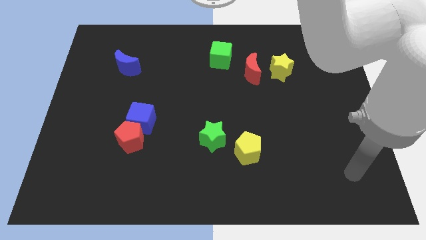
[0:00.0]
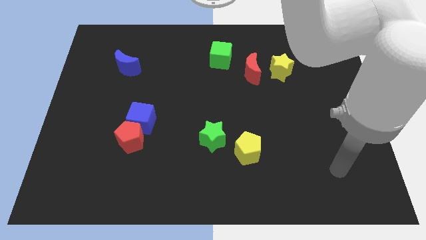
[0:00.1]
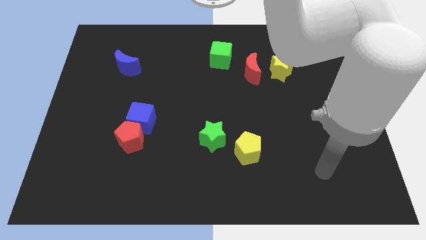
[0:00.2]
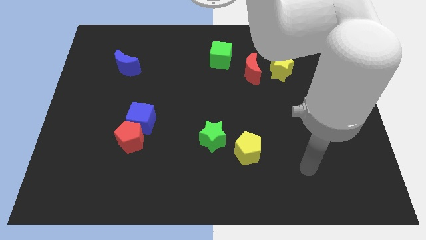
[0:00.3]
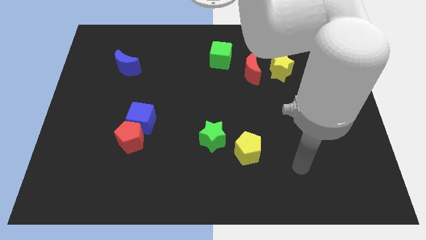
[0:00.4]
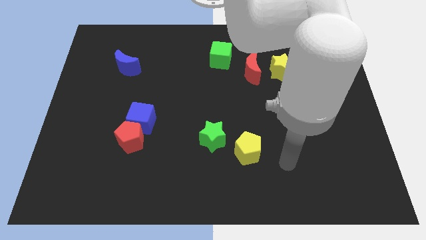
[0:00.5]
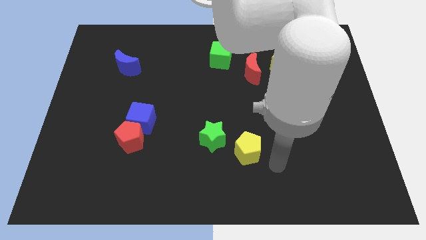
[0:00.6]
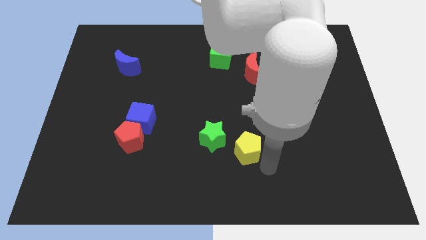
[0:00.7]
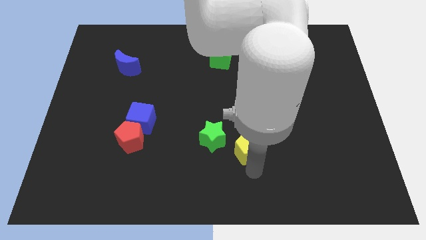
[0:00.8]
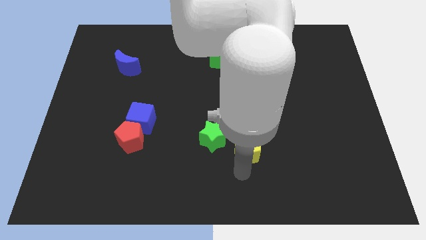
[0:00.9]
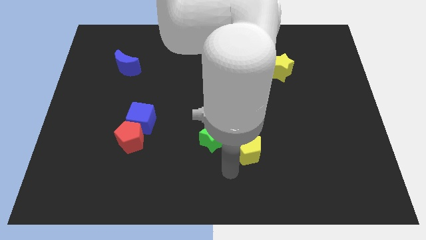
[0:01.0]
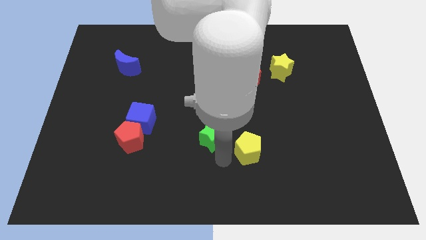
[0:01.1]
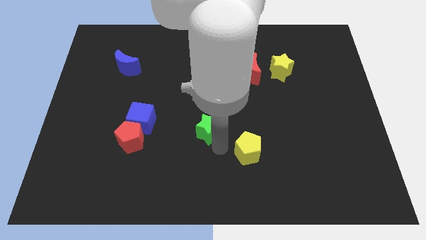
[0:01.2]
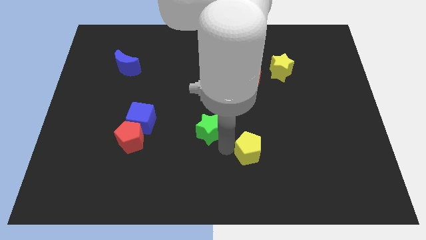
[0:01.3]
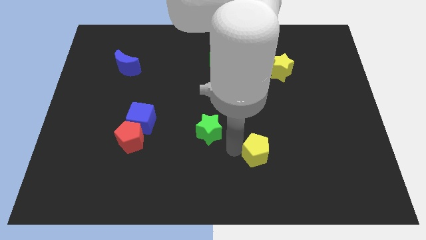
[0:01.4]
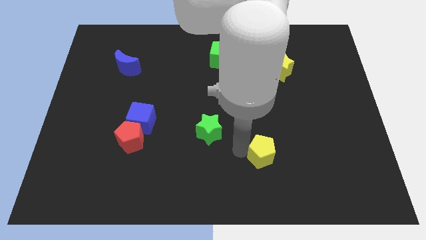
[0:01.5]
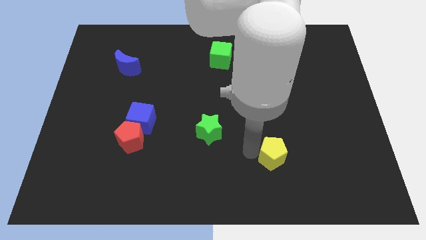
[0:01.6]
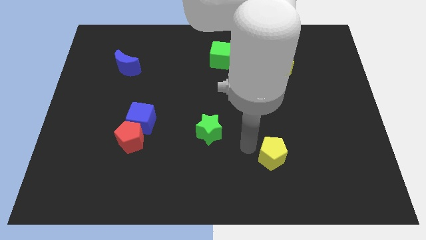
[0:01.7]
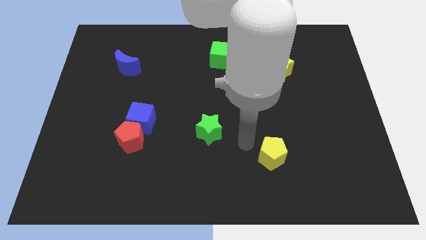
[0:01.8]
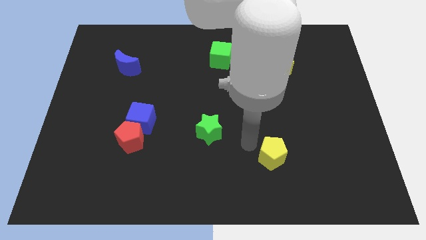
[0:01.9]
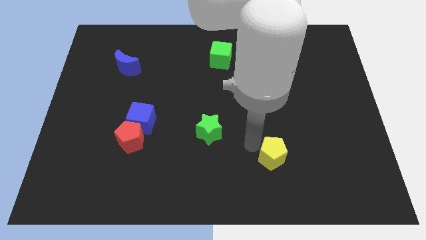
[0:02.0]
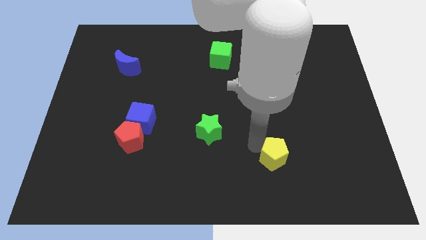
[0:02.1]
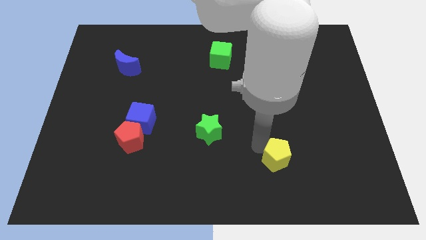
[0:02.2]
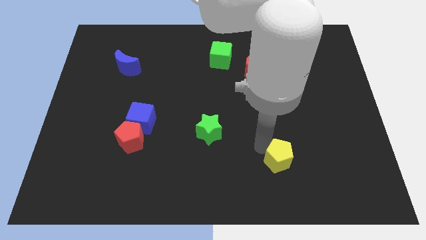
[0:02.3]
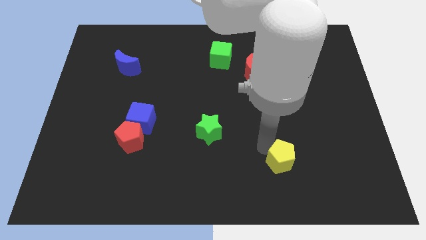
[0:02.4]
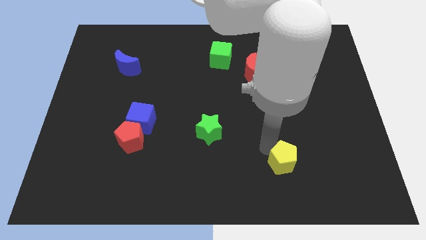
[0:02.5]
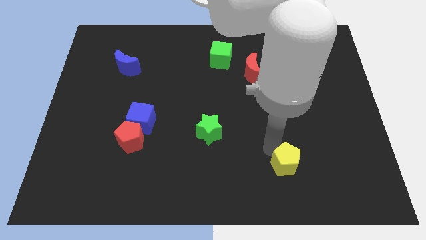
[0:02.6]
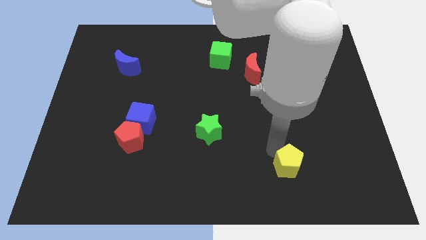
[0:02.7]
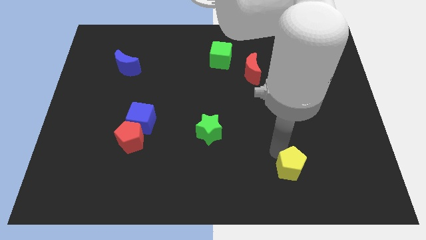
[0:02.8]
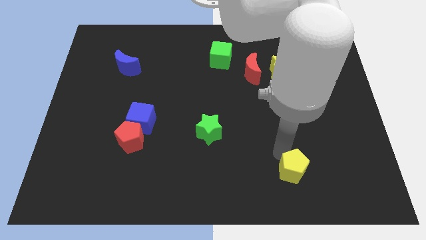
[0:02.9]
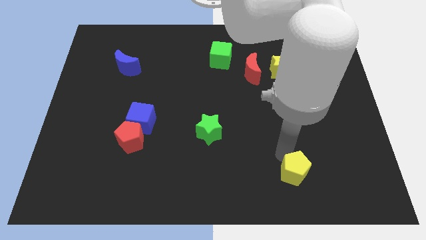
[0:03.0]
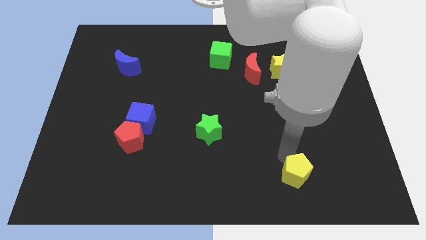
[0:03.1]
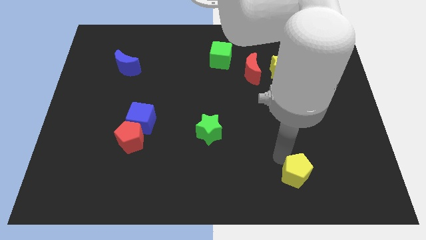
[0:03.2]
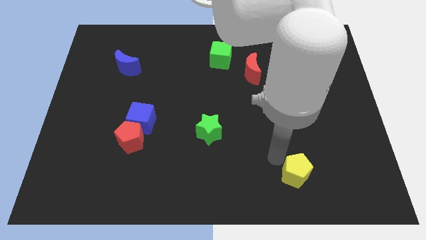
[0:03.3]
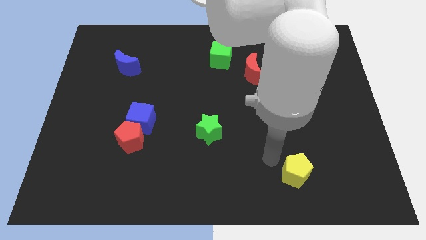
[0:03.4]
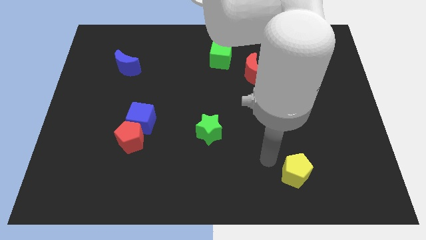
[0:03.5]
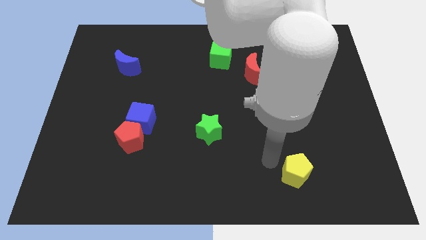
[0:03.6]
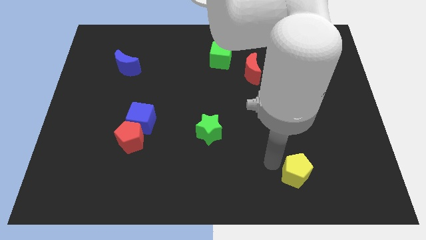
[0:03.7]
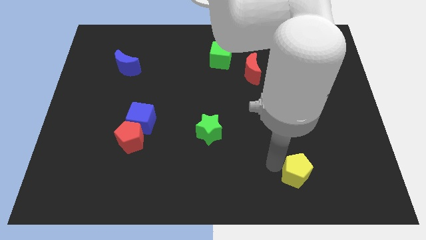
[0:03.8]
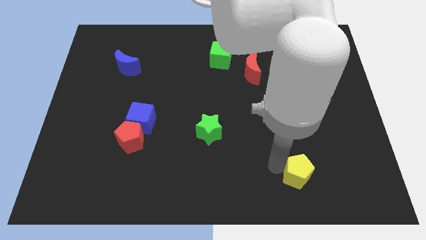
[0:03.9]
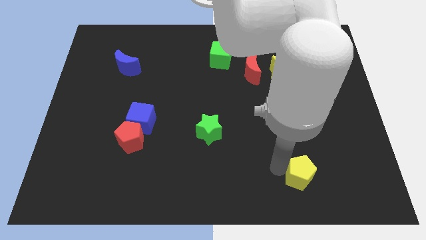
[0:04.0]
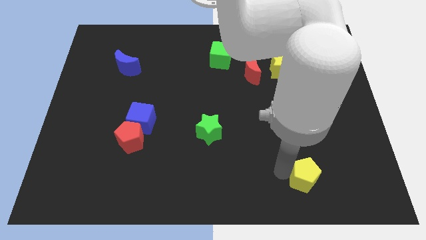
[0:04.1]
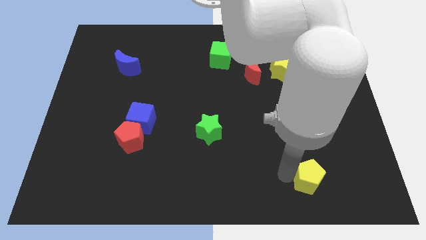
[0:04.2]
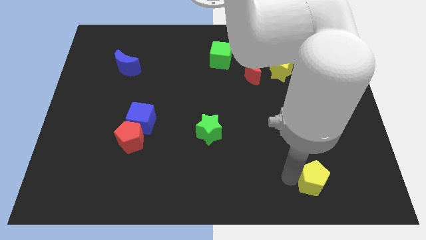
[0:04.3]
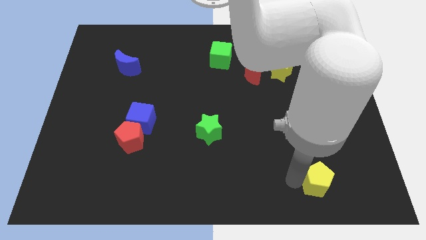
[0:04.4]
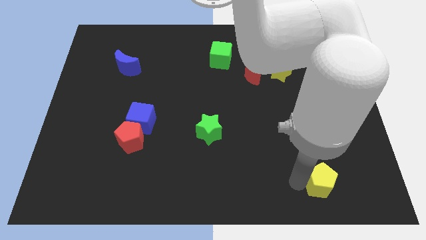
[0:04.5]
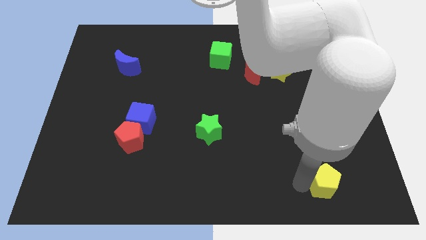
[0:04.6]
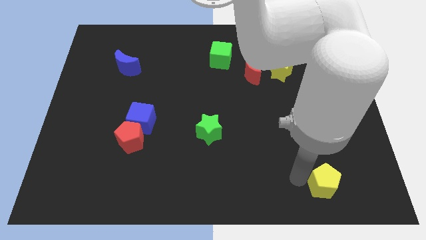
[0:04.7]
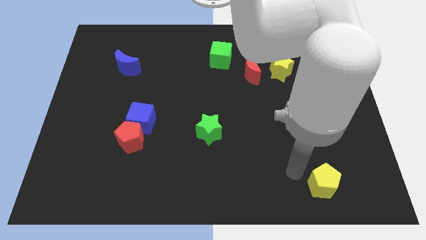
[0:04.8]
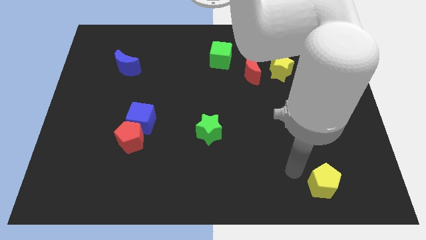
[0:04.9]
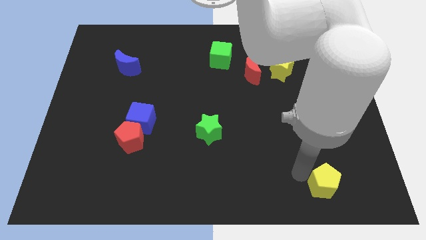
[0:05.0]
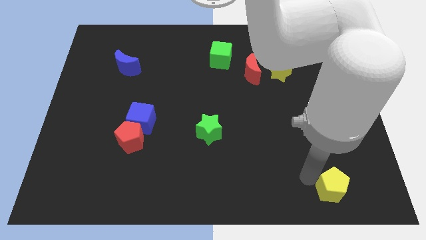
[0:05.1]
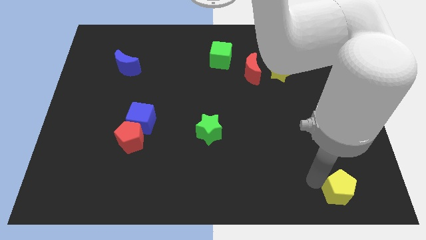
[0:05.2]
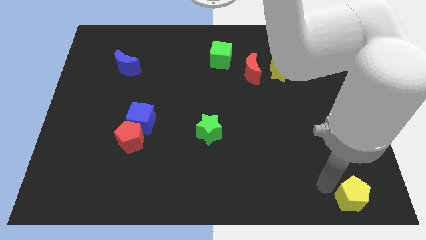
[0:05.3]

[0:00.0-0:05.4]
move the yellow pentagon to the bottom right corner
